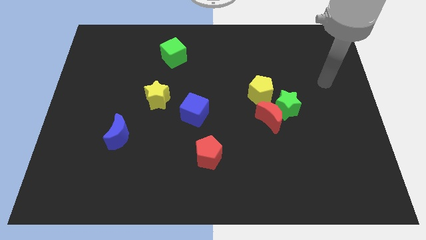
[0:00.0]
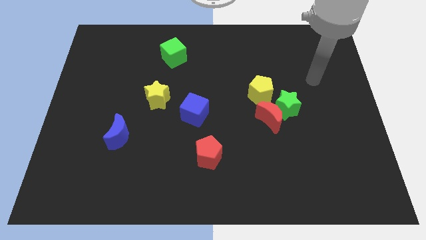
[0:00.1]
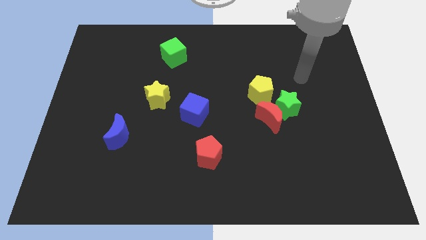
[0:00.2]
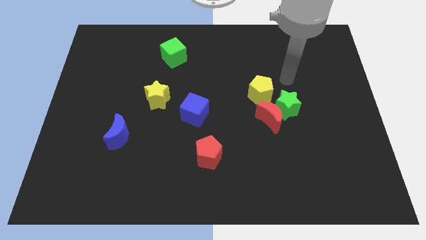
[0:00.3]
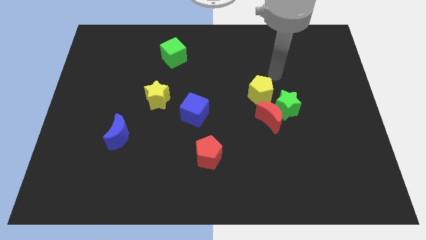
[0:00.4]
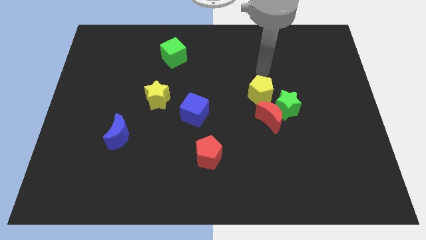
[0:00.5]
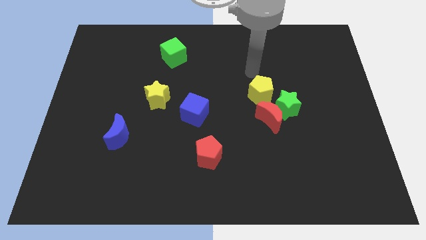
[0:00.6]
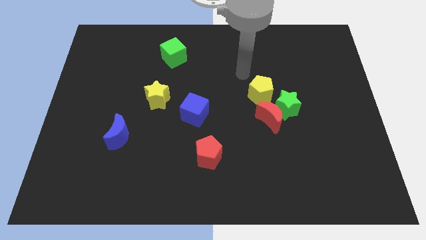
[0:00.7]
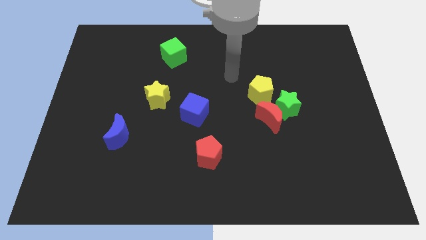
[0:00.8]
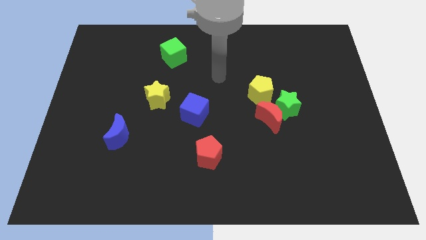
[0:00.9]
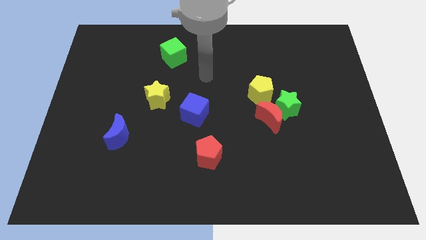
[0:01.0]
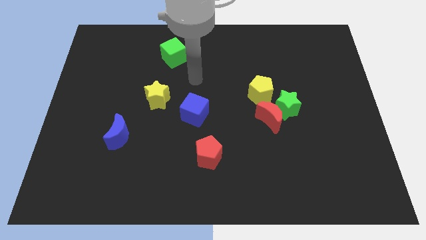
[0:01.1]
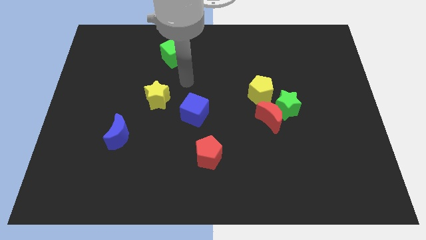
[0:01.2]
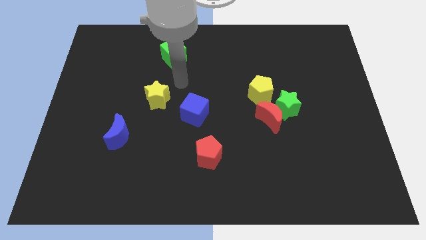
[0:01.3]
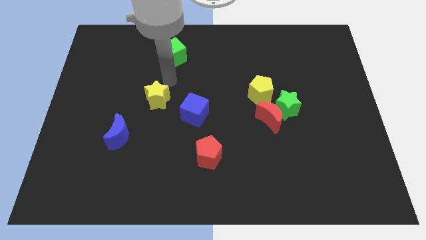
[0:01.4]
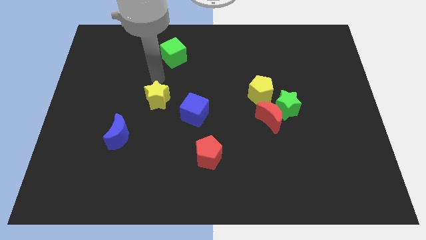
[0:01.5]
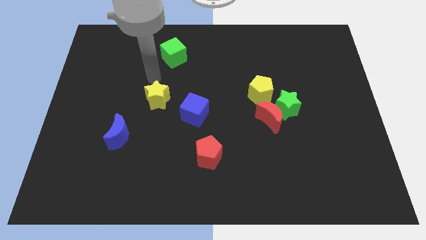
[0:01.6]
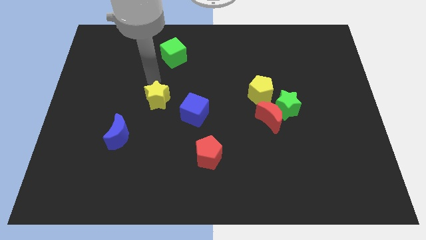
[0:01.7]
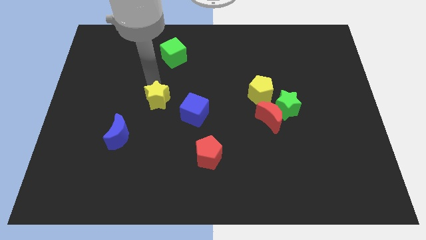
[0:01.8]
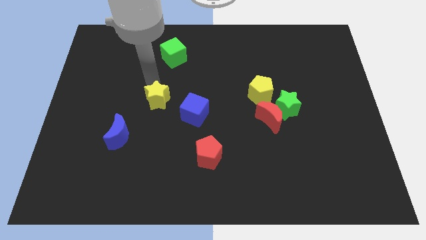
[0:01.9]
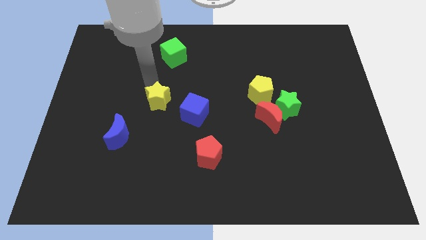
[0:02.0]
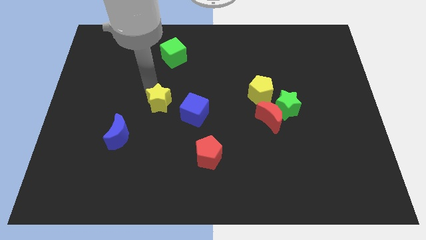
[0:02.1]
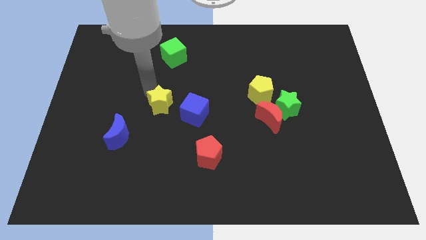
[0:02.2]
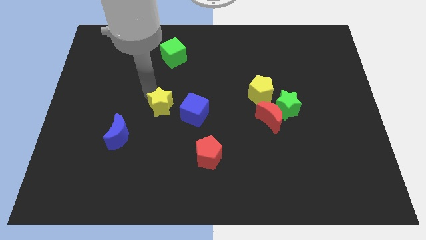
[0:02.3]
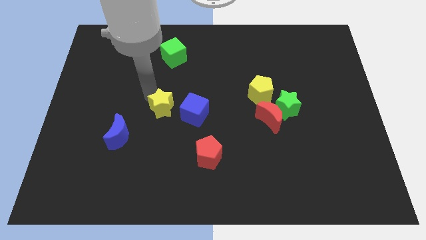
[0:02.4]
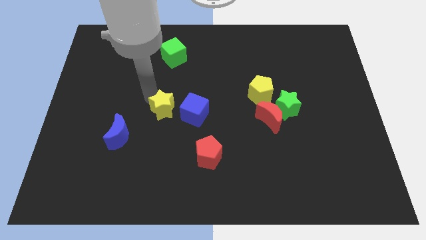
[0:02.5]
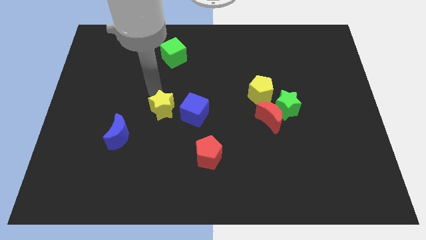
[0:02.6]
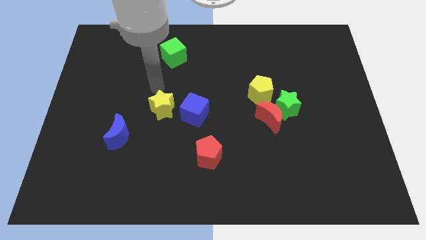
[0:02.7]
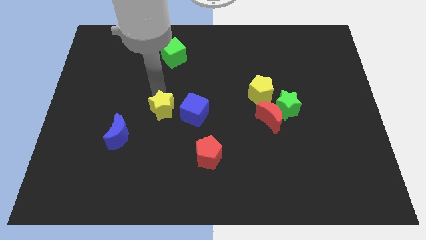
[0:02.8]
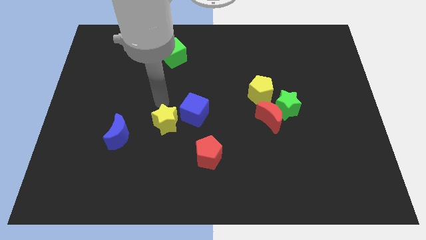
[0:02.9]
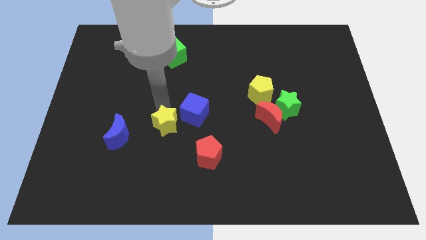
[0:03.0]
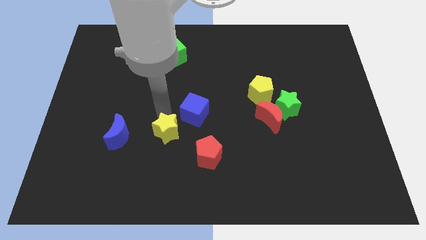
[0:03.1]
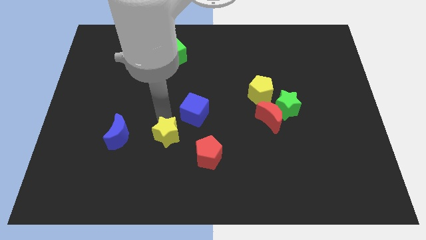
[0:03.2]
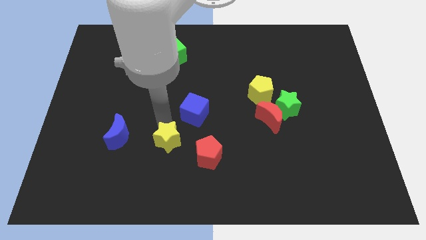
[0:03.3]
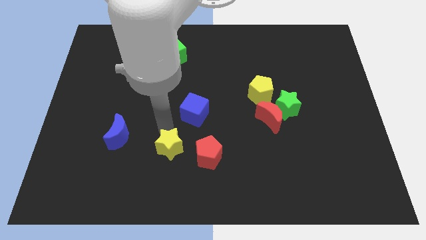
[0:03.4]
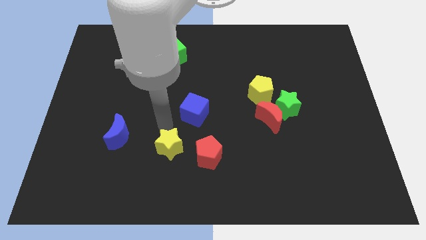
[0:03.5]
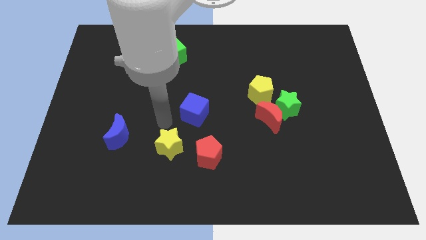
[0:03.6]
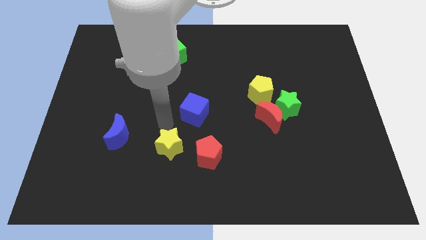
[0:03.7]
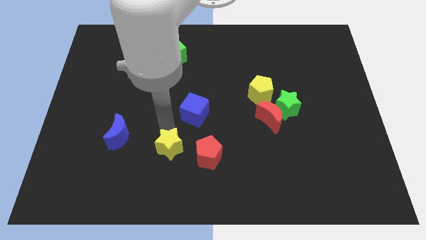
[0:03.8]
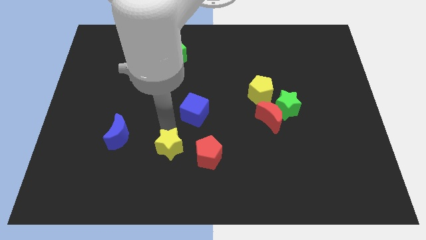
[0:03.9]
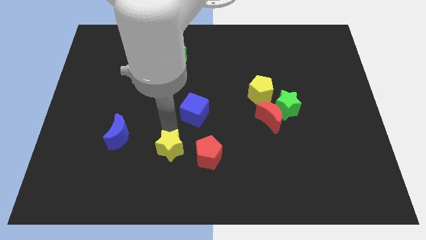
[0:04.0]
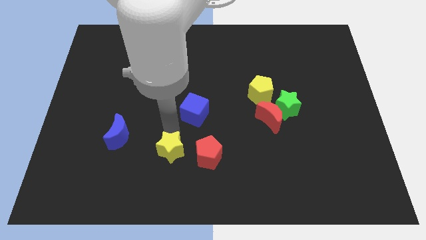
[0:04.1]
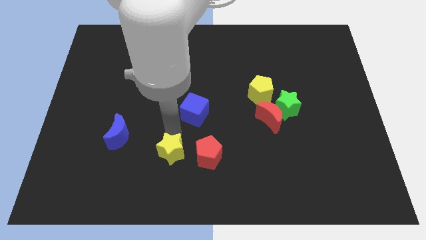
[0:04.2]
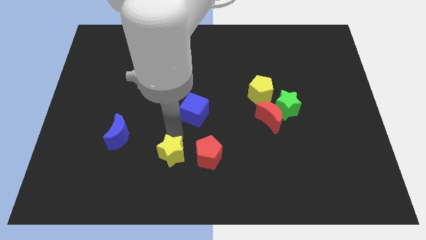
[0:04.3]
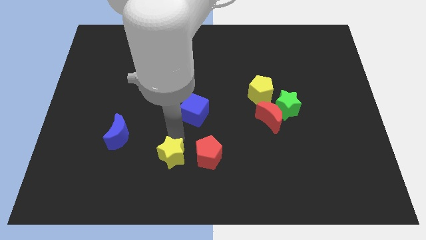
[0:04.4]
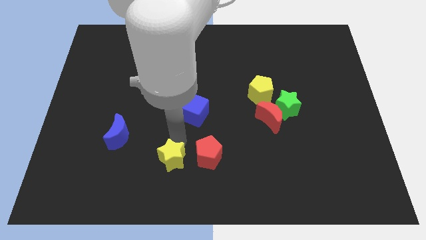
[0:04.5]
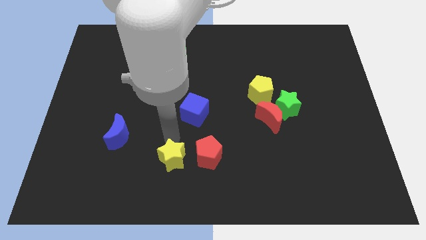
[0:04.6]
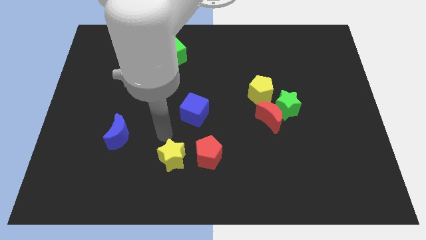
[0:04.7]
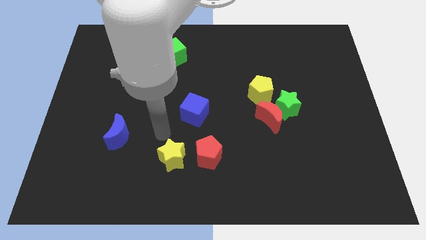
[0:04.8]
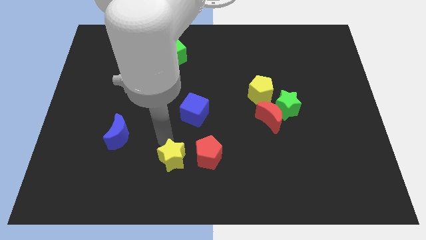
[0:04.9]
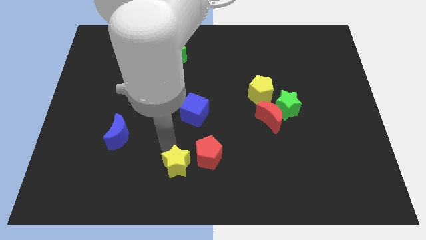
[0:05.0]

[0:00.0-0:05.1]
put the yellow star to the bottom

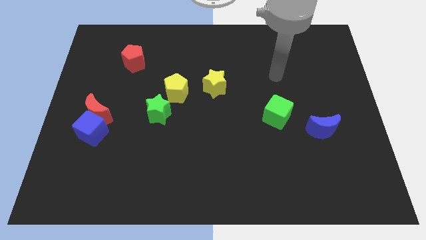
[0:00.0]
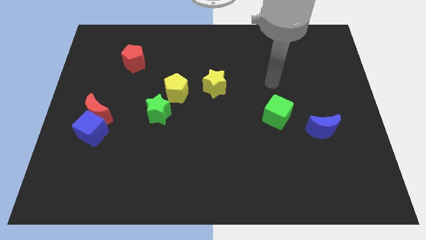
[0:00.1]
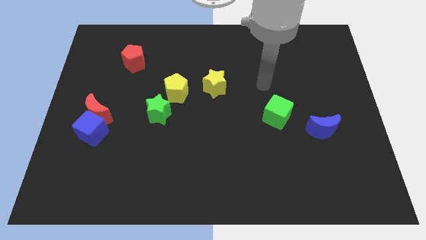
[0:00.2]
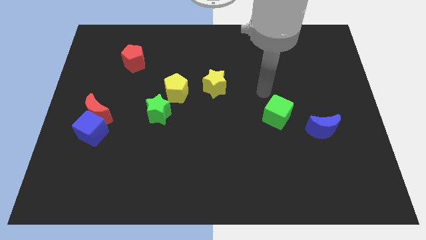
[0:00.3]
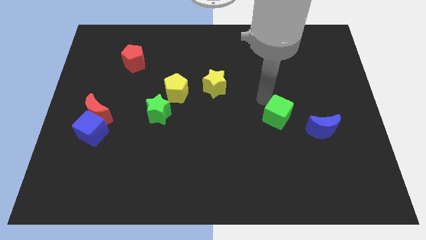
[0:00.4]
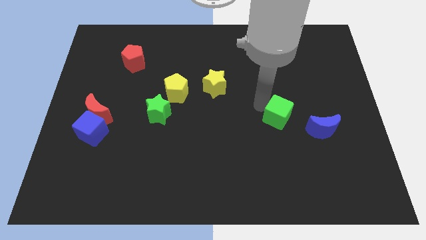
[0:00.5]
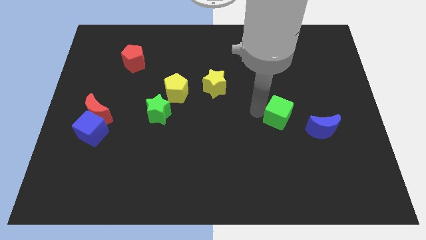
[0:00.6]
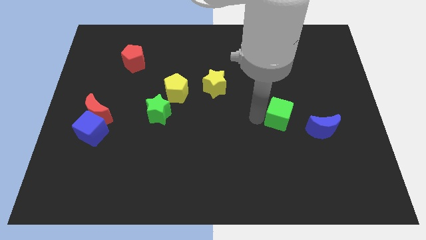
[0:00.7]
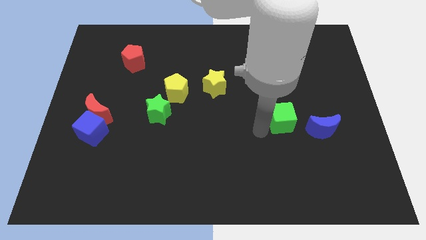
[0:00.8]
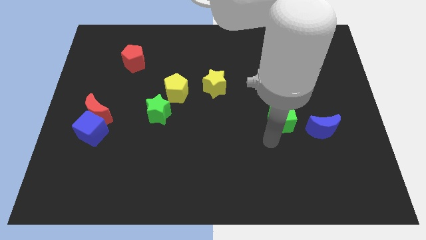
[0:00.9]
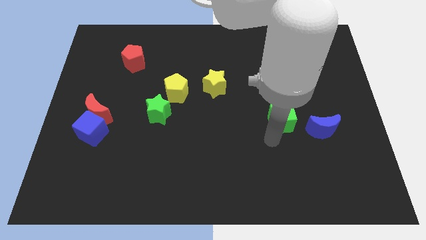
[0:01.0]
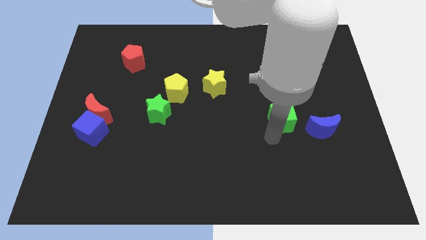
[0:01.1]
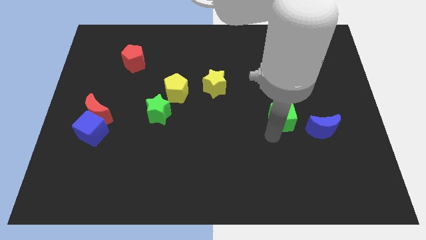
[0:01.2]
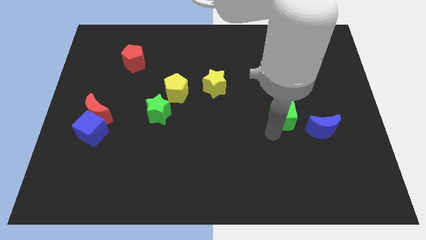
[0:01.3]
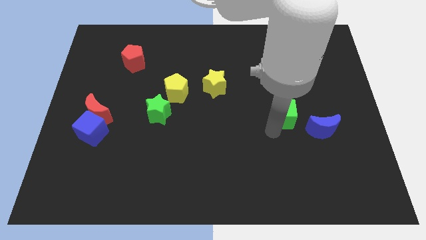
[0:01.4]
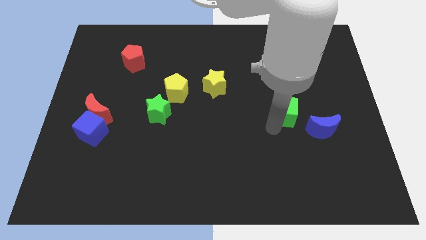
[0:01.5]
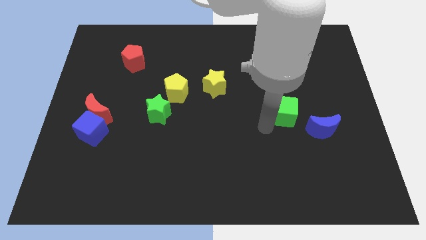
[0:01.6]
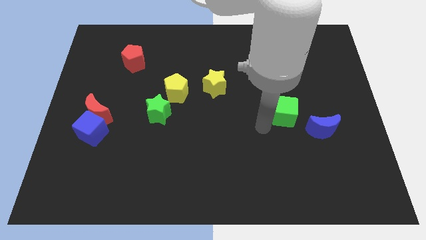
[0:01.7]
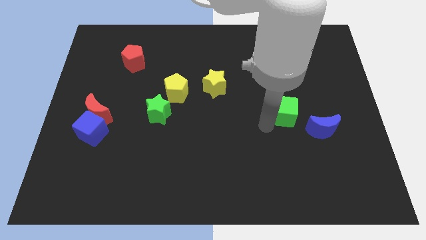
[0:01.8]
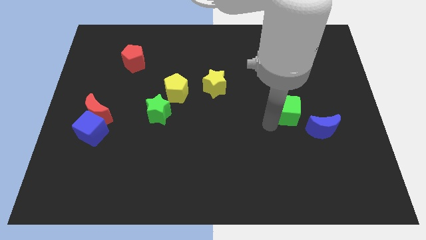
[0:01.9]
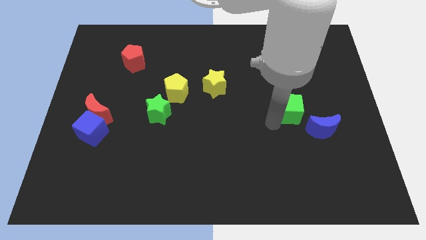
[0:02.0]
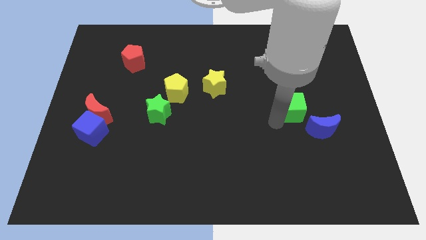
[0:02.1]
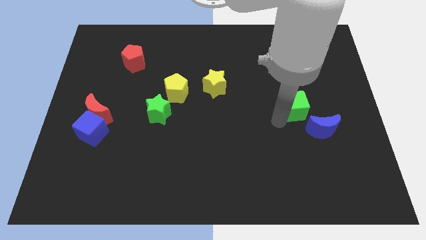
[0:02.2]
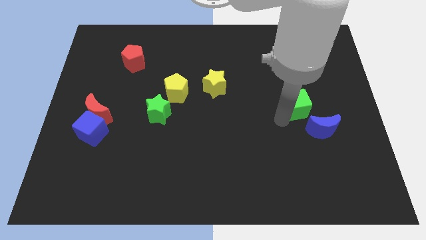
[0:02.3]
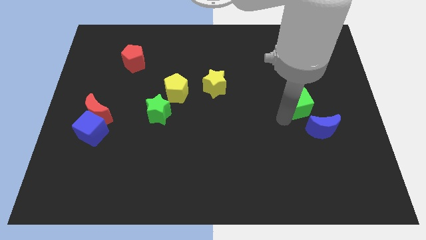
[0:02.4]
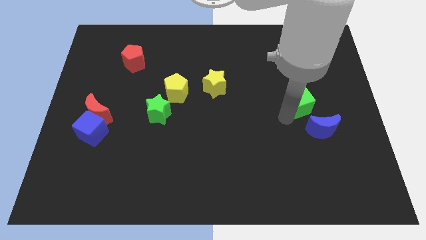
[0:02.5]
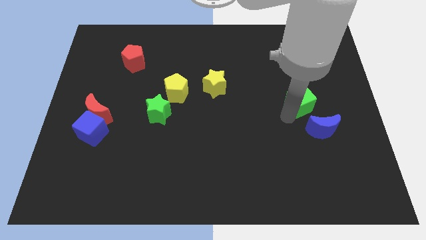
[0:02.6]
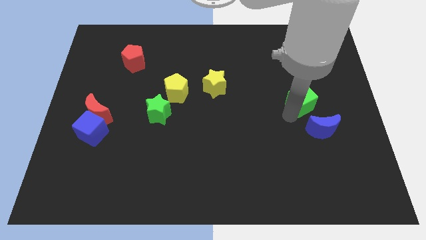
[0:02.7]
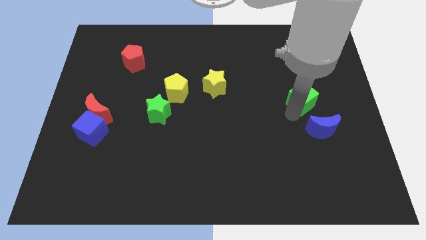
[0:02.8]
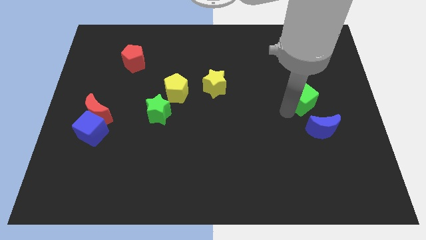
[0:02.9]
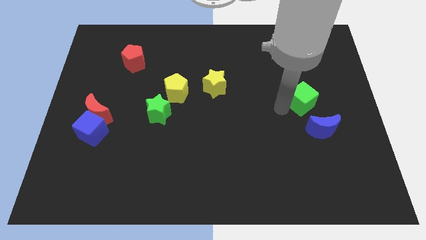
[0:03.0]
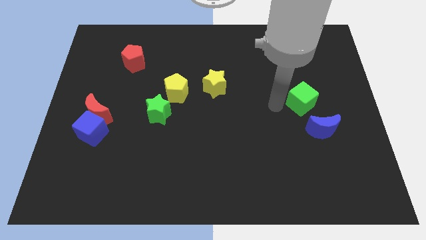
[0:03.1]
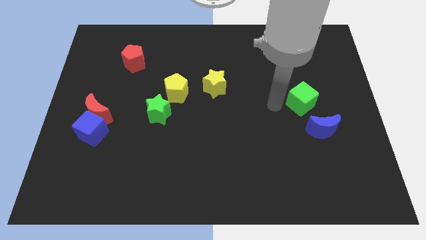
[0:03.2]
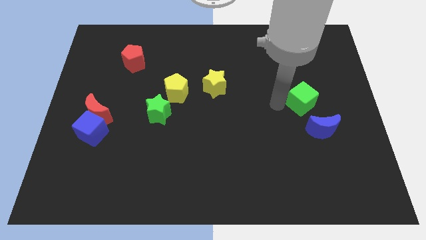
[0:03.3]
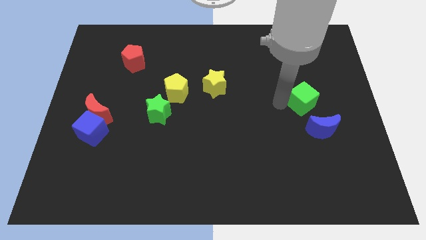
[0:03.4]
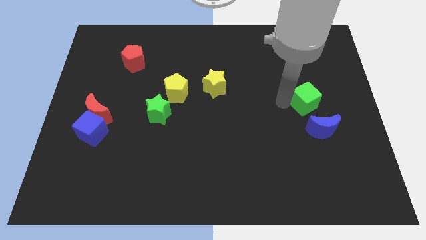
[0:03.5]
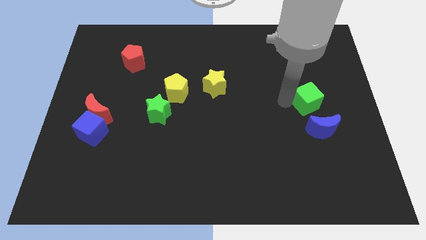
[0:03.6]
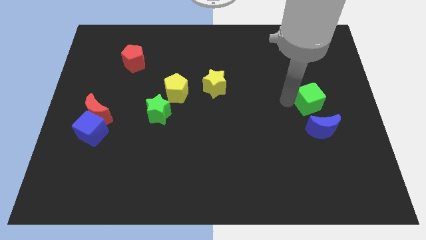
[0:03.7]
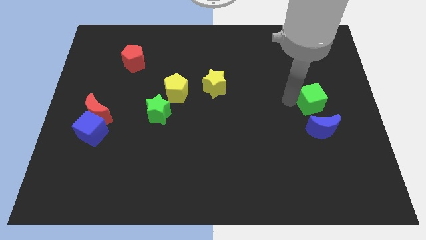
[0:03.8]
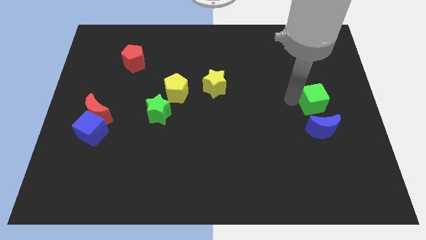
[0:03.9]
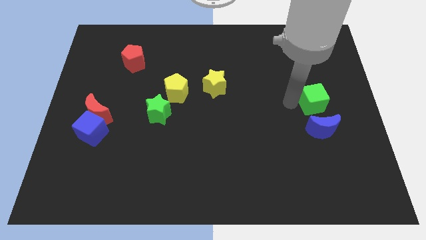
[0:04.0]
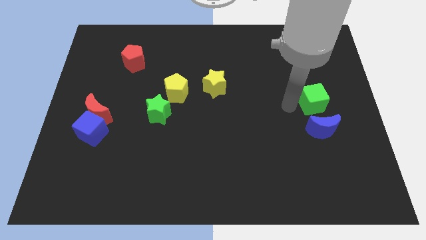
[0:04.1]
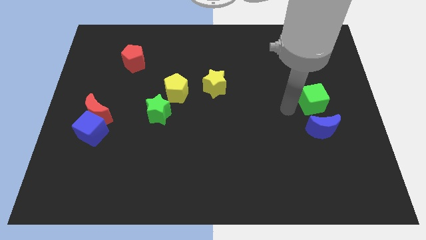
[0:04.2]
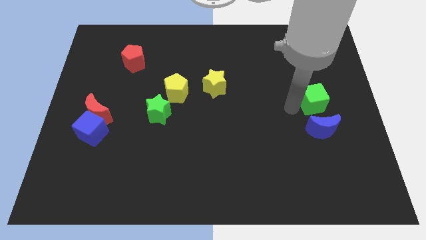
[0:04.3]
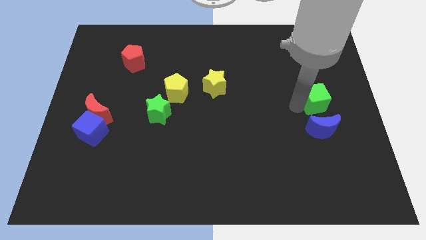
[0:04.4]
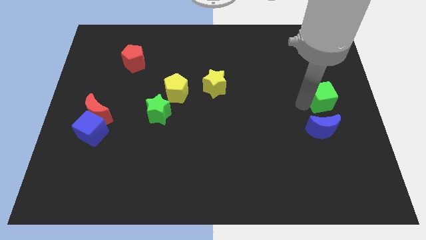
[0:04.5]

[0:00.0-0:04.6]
put the green cube to the center right
